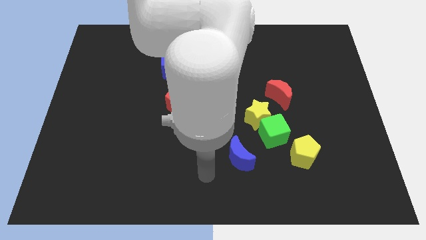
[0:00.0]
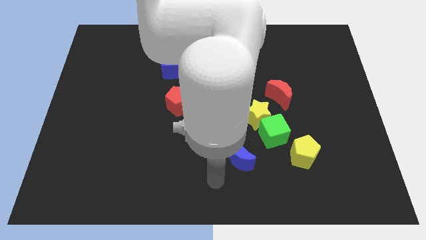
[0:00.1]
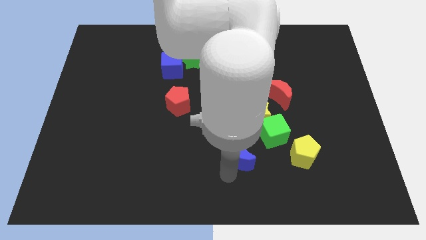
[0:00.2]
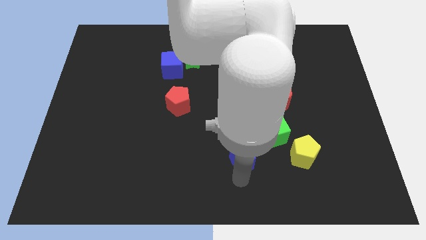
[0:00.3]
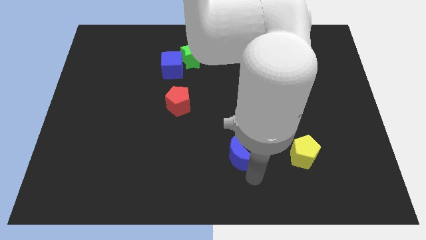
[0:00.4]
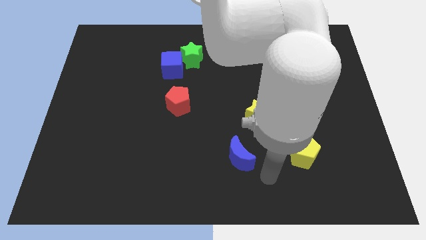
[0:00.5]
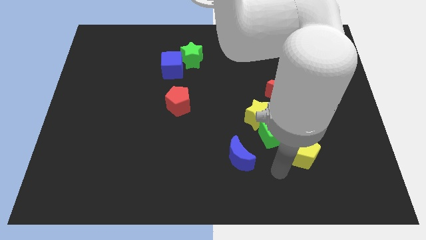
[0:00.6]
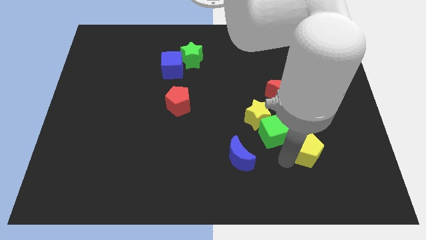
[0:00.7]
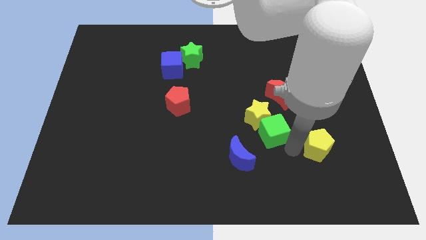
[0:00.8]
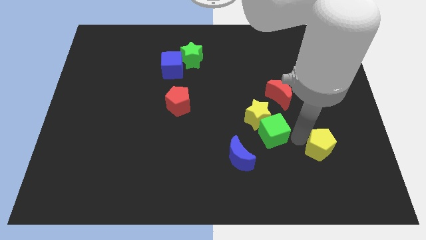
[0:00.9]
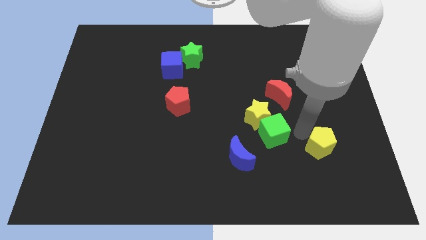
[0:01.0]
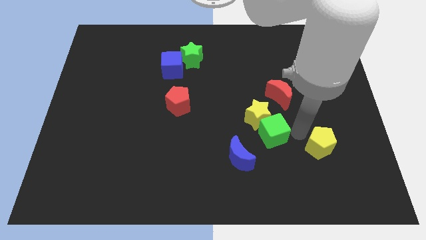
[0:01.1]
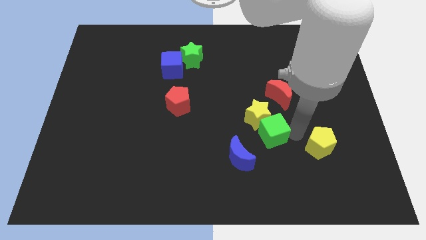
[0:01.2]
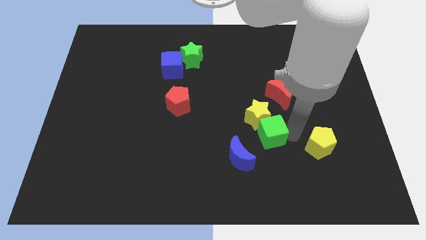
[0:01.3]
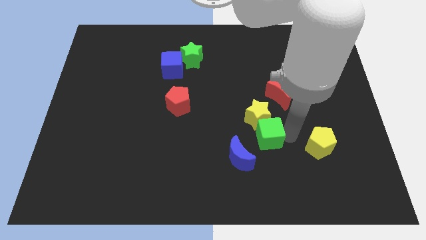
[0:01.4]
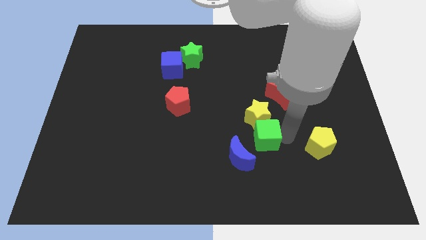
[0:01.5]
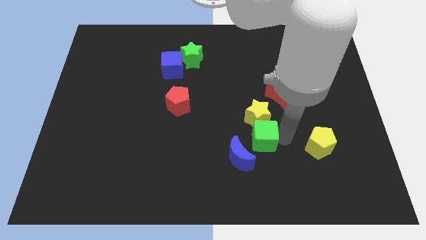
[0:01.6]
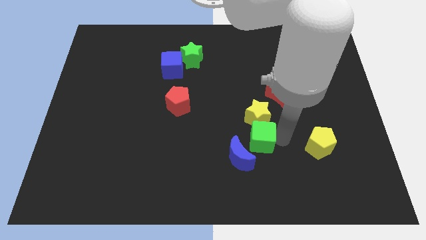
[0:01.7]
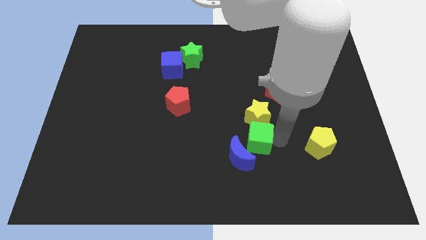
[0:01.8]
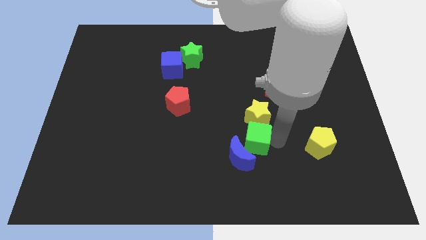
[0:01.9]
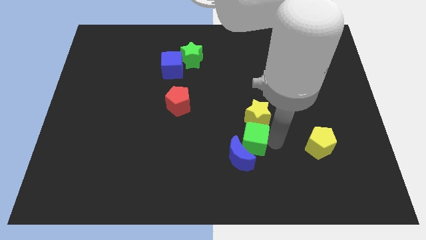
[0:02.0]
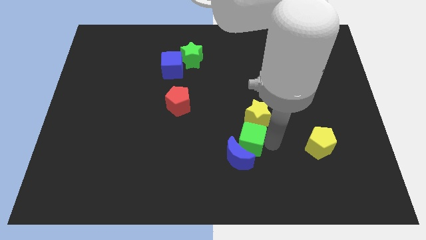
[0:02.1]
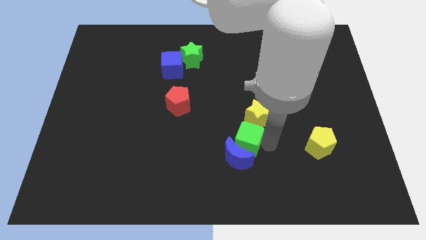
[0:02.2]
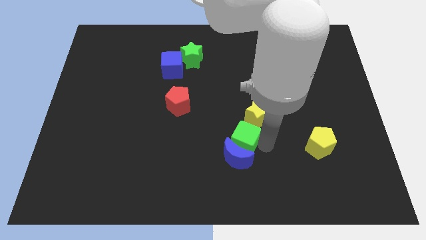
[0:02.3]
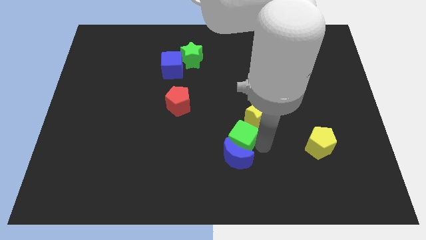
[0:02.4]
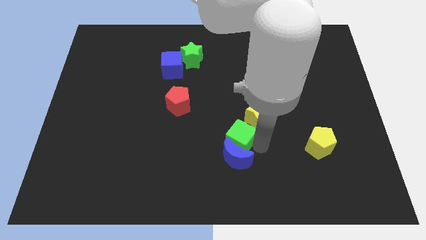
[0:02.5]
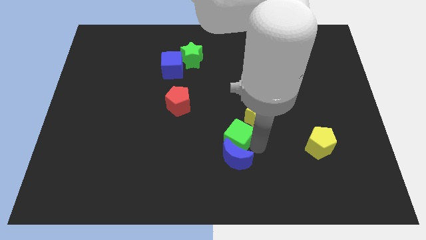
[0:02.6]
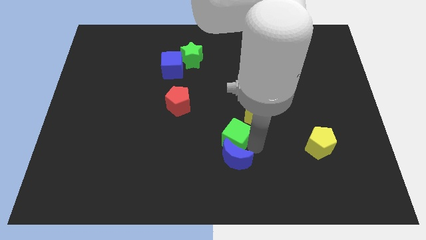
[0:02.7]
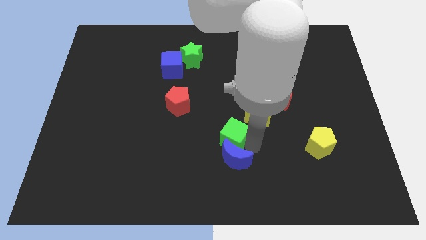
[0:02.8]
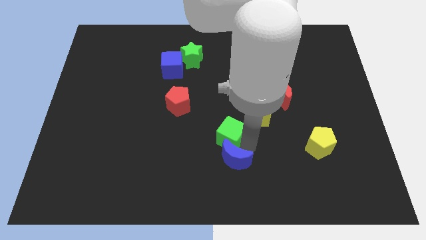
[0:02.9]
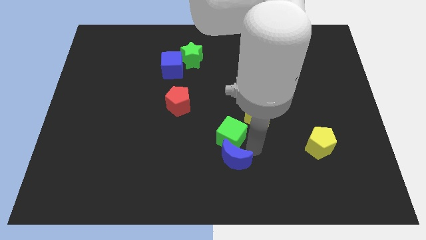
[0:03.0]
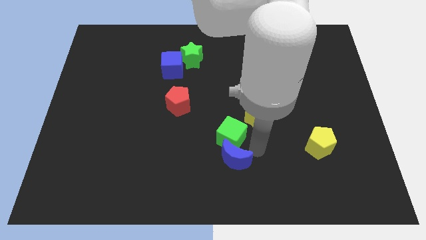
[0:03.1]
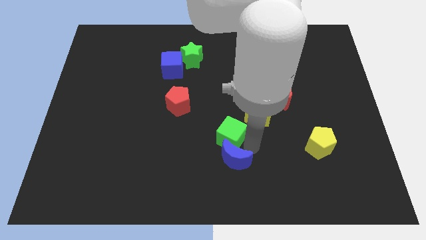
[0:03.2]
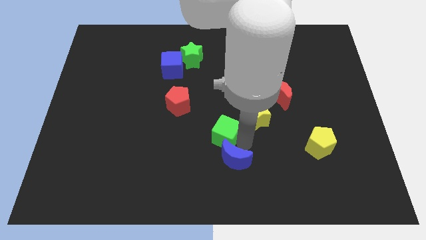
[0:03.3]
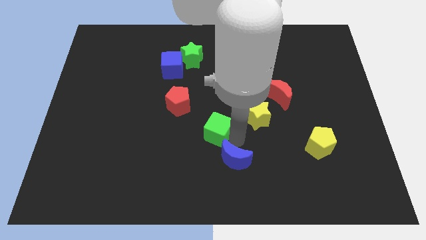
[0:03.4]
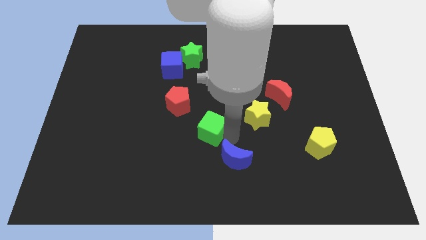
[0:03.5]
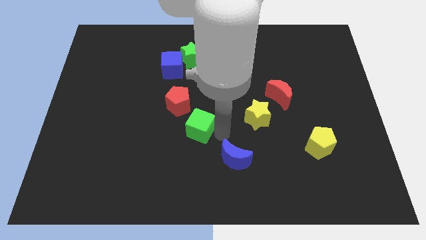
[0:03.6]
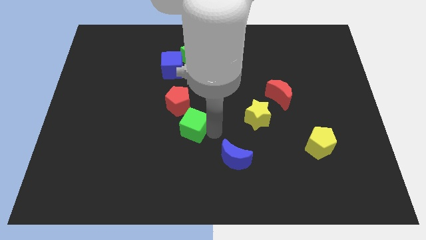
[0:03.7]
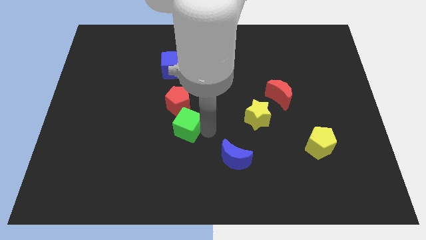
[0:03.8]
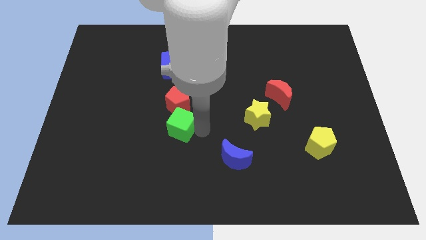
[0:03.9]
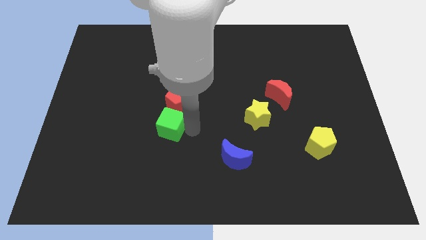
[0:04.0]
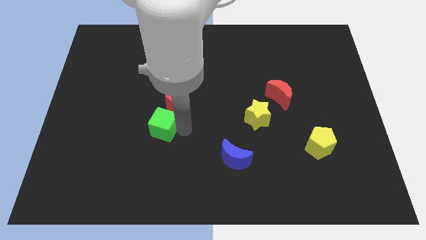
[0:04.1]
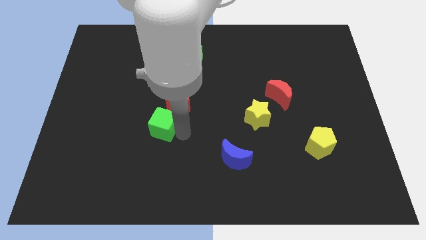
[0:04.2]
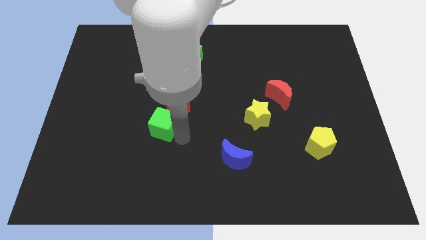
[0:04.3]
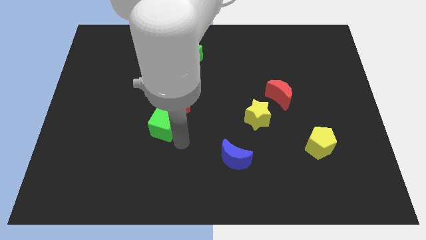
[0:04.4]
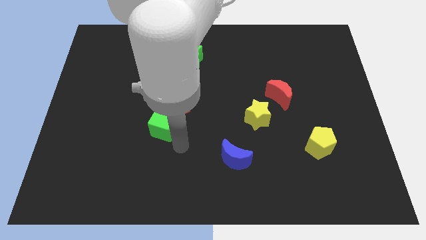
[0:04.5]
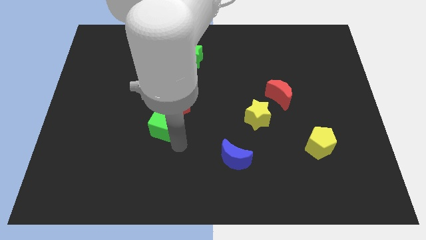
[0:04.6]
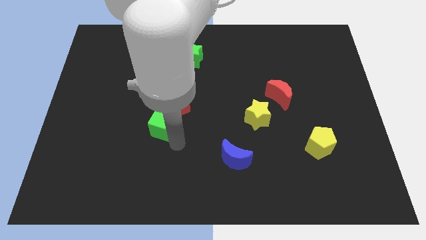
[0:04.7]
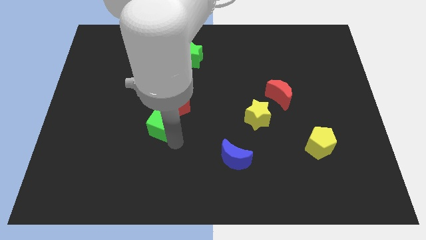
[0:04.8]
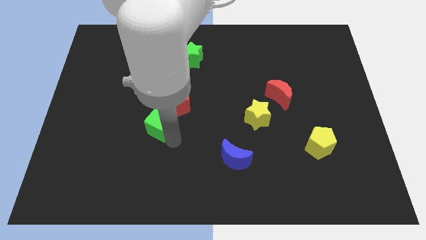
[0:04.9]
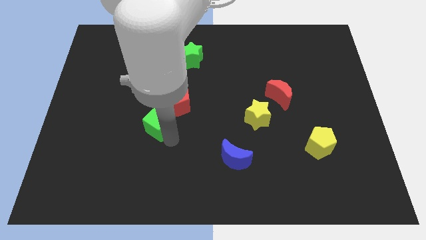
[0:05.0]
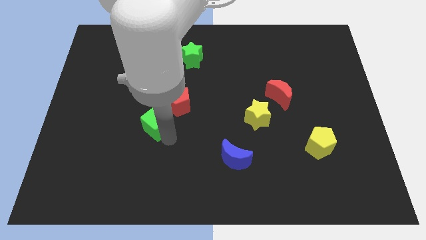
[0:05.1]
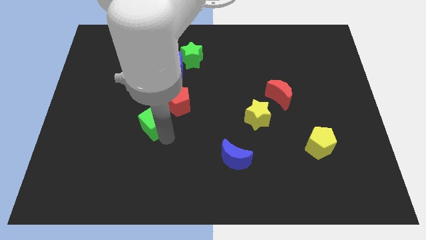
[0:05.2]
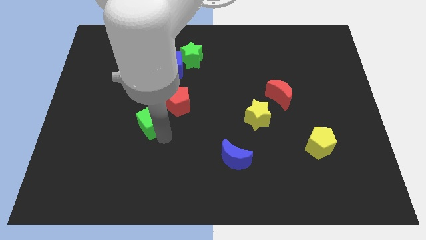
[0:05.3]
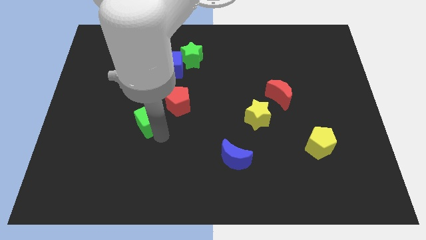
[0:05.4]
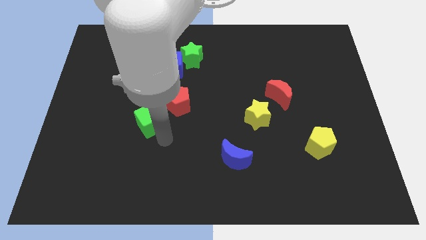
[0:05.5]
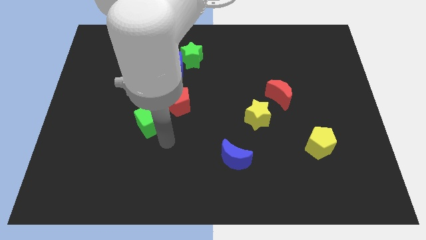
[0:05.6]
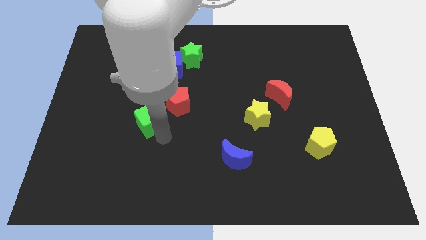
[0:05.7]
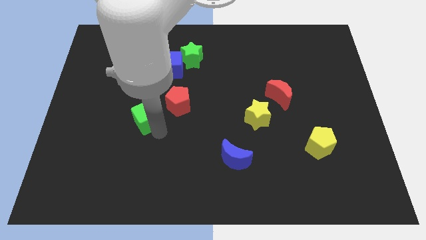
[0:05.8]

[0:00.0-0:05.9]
put the green cube to the left of the red pentagon

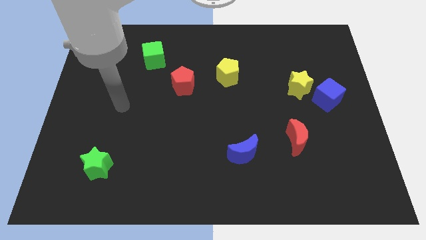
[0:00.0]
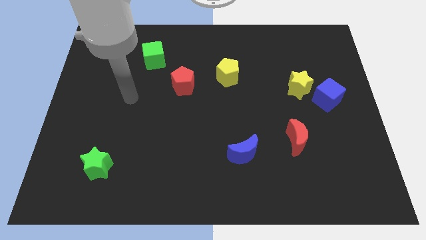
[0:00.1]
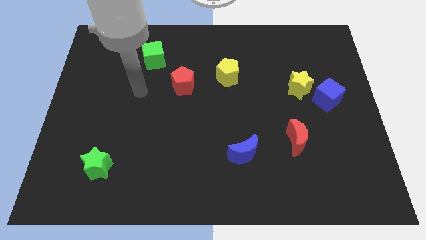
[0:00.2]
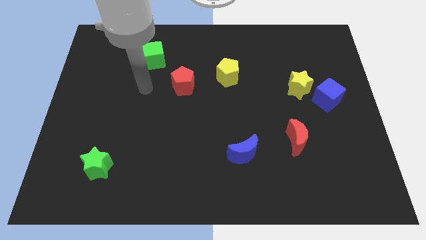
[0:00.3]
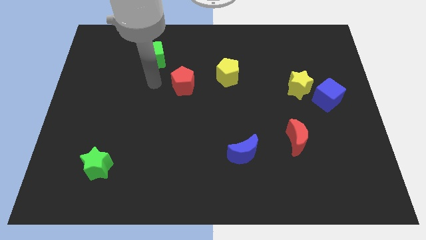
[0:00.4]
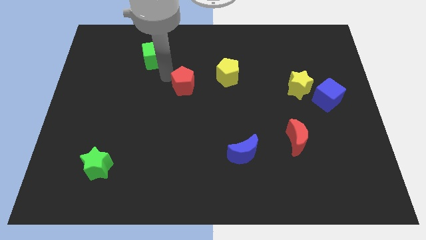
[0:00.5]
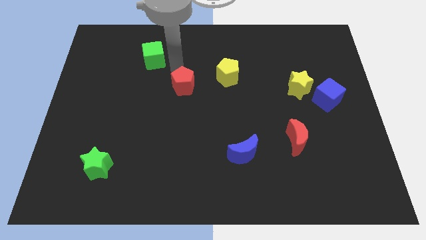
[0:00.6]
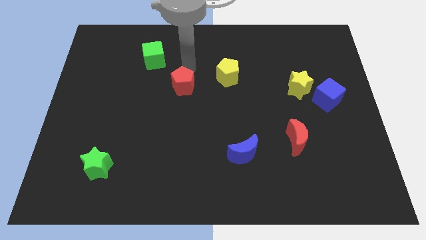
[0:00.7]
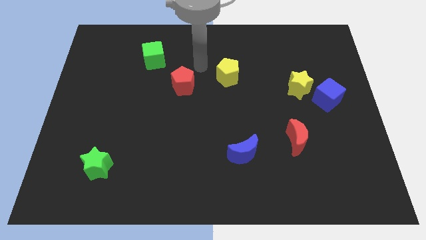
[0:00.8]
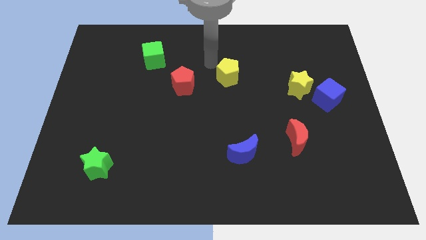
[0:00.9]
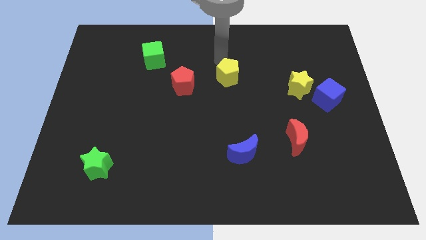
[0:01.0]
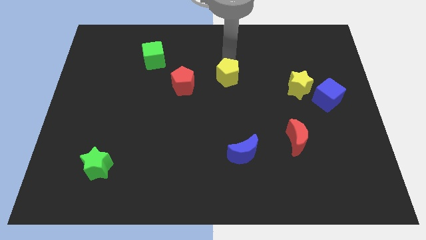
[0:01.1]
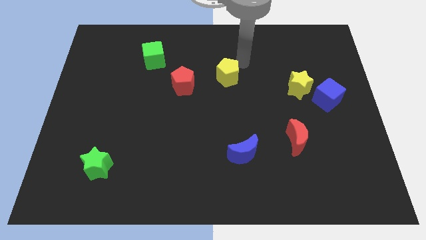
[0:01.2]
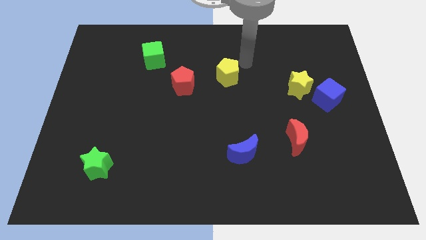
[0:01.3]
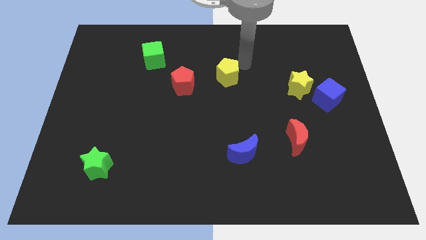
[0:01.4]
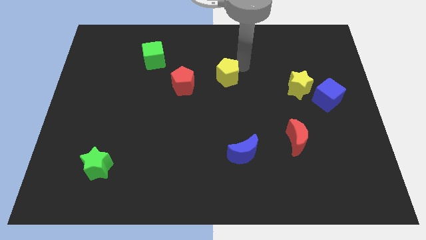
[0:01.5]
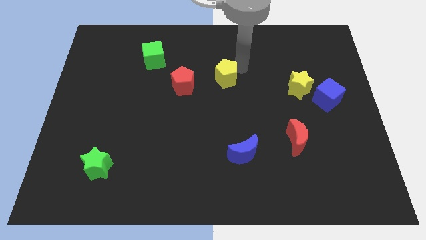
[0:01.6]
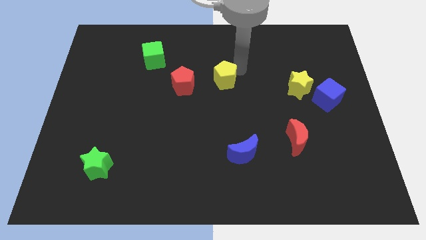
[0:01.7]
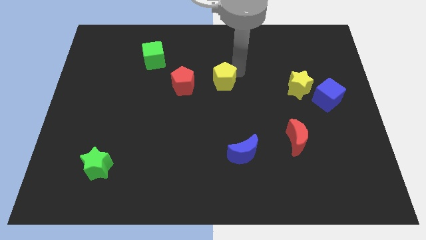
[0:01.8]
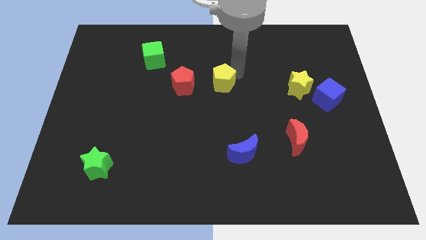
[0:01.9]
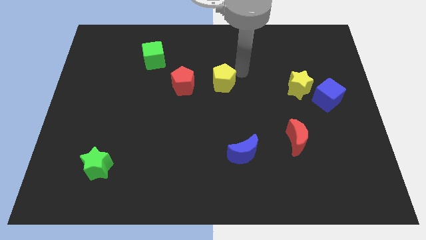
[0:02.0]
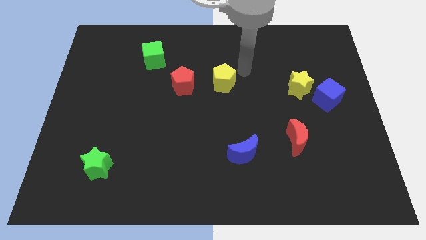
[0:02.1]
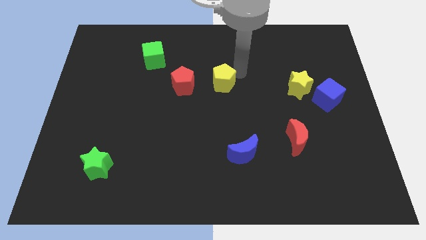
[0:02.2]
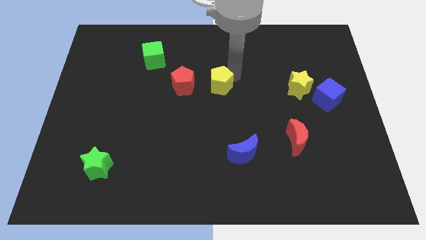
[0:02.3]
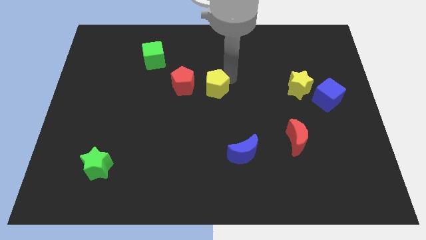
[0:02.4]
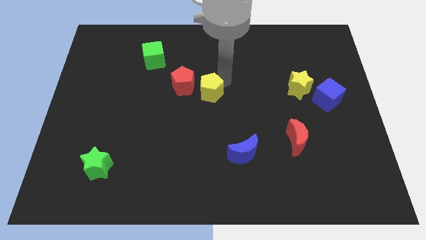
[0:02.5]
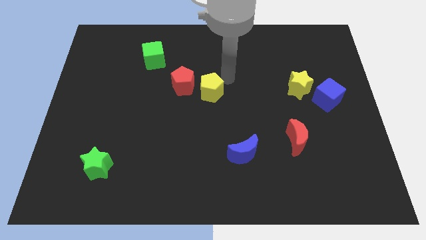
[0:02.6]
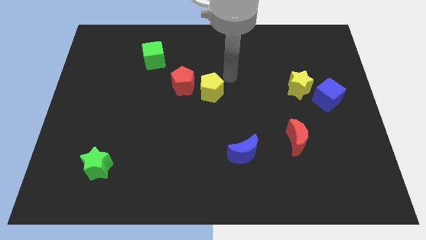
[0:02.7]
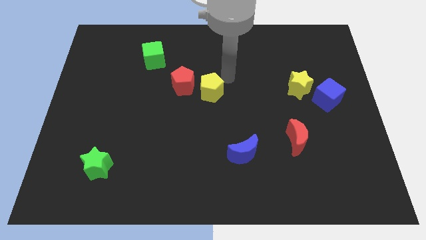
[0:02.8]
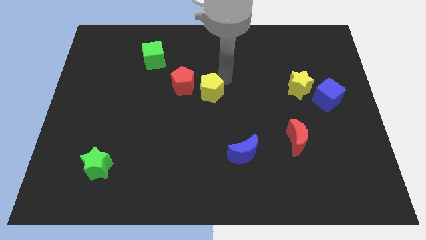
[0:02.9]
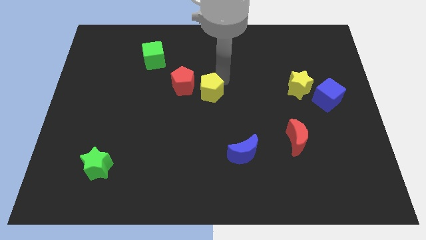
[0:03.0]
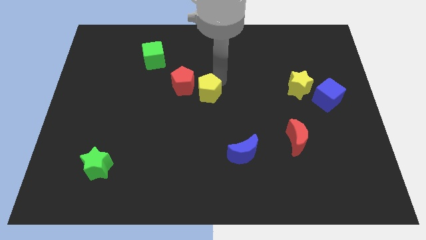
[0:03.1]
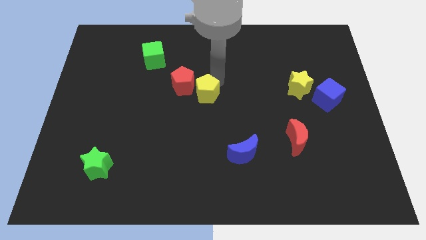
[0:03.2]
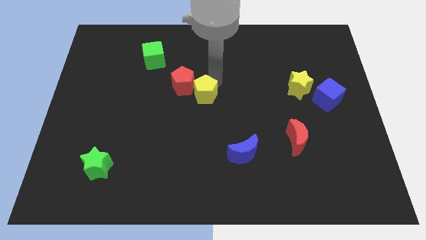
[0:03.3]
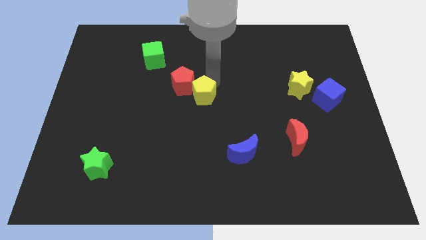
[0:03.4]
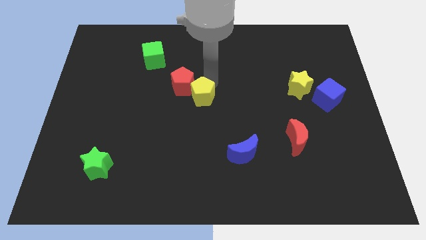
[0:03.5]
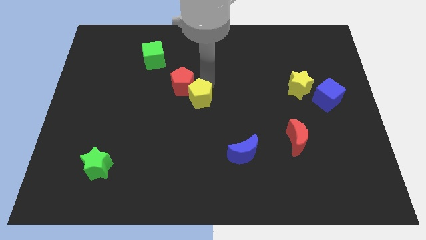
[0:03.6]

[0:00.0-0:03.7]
slide the yellow pentagon below the red pentagon
